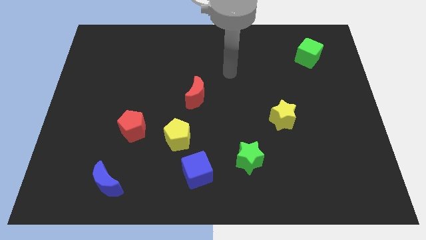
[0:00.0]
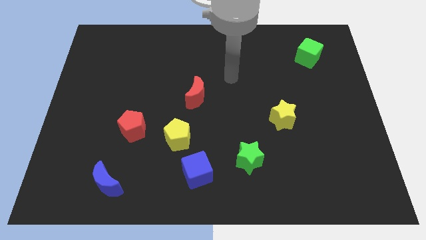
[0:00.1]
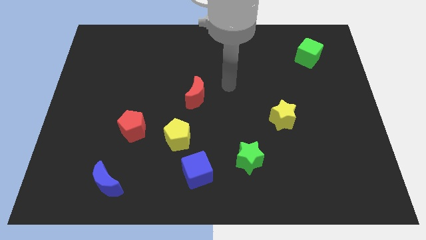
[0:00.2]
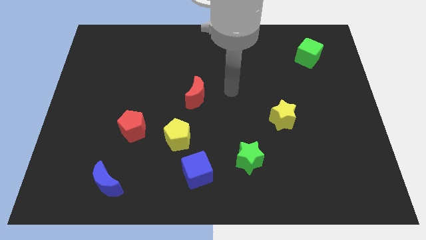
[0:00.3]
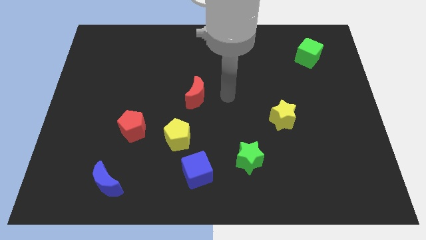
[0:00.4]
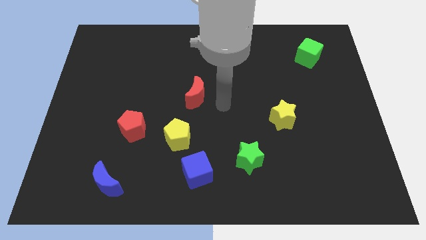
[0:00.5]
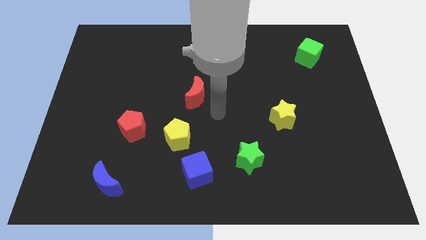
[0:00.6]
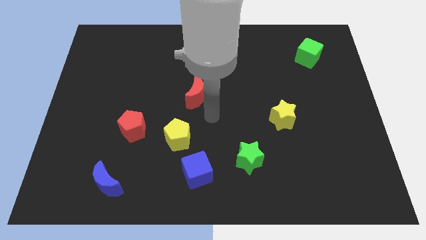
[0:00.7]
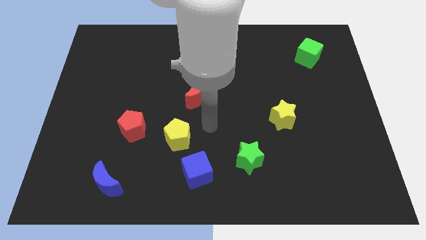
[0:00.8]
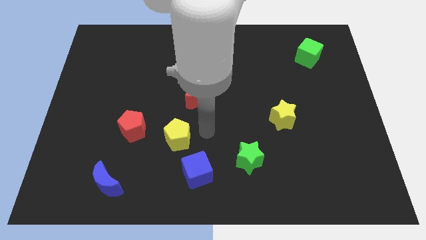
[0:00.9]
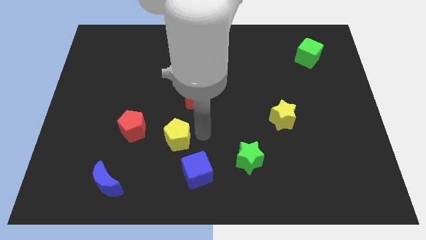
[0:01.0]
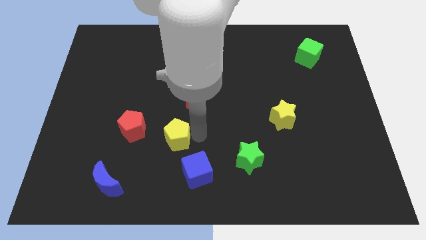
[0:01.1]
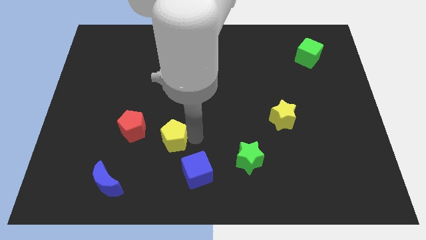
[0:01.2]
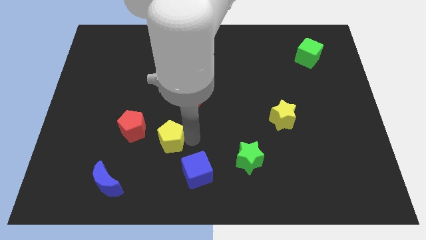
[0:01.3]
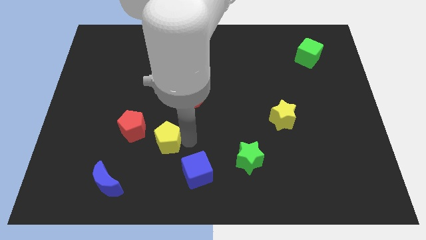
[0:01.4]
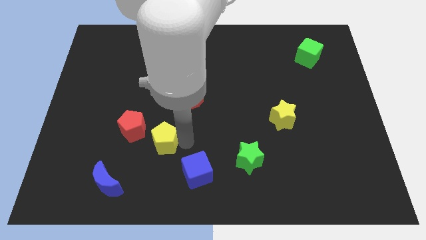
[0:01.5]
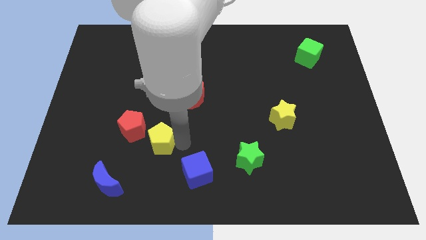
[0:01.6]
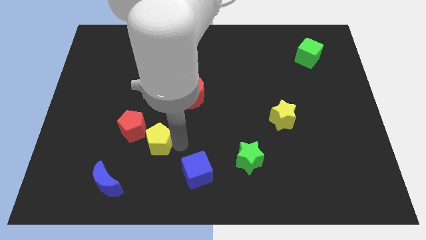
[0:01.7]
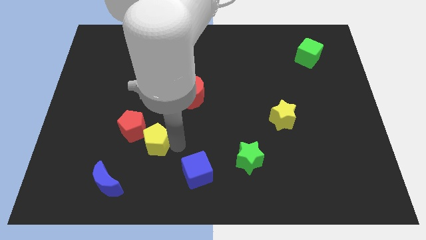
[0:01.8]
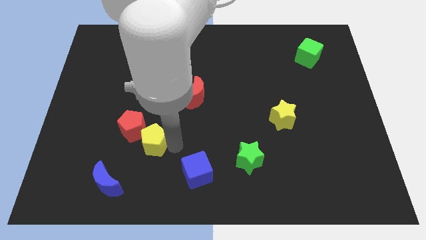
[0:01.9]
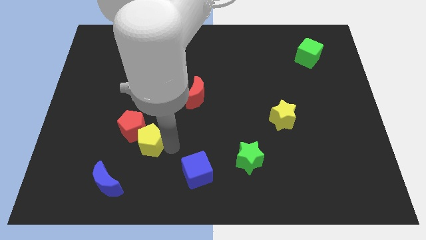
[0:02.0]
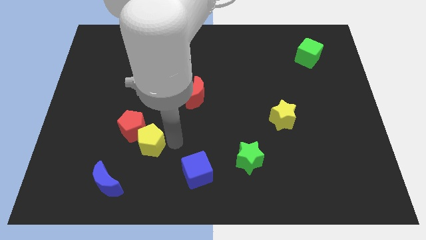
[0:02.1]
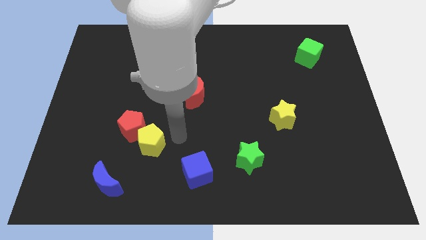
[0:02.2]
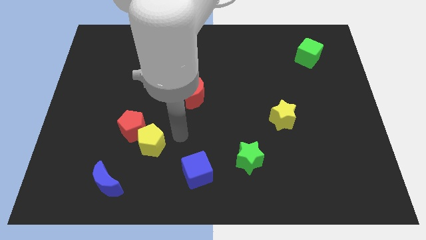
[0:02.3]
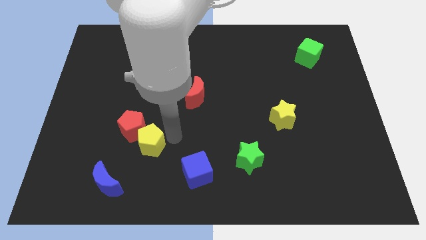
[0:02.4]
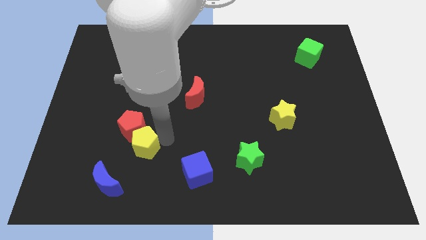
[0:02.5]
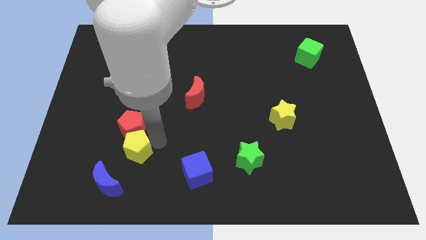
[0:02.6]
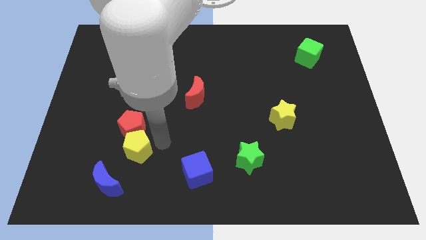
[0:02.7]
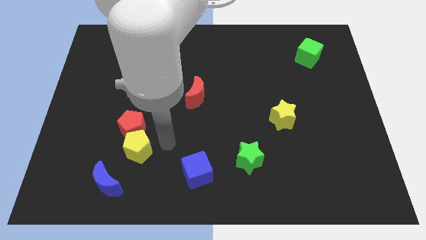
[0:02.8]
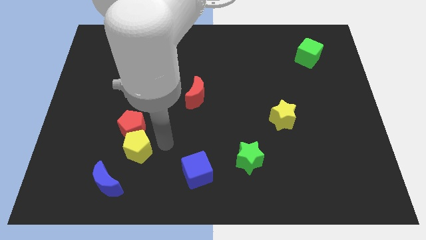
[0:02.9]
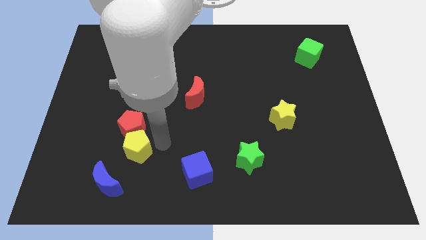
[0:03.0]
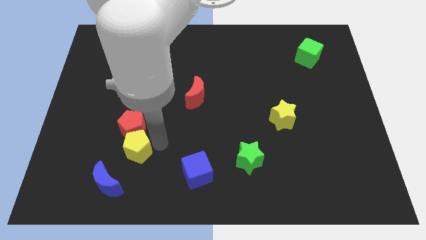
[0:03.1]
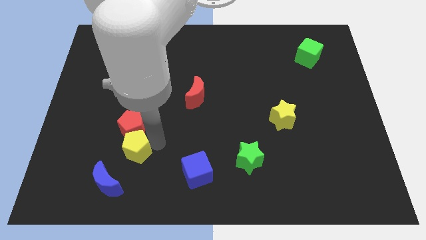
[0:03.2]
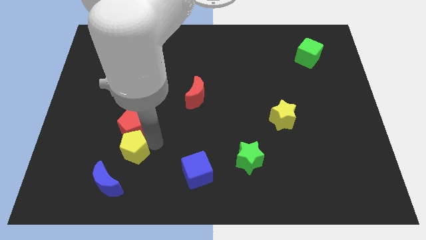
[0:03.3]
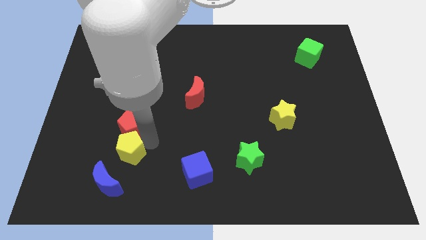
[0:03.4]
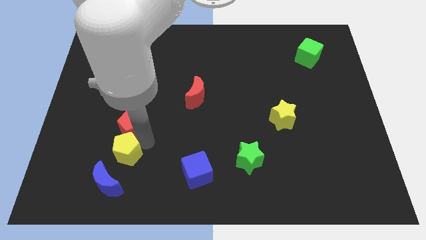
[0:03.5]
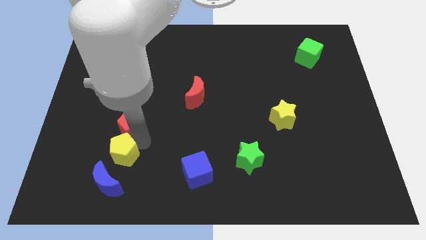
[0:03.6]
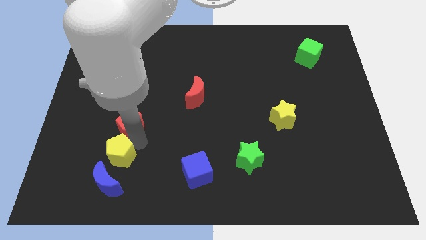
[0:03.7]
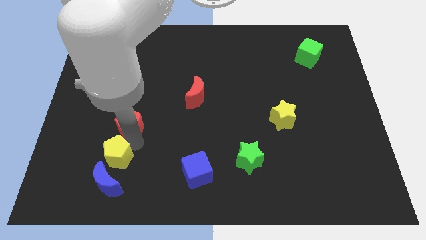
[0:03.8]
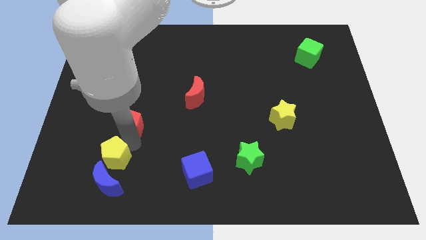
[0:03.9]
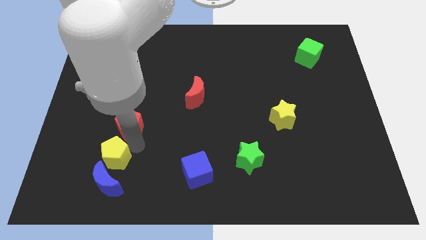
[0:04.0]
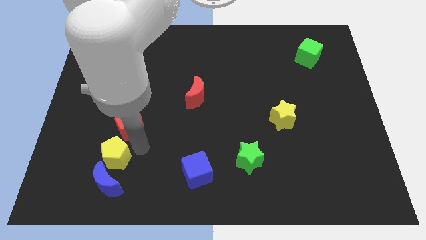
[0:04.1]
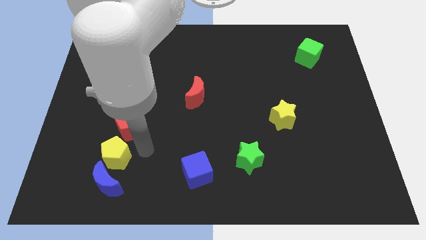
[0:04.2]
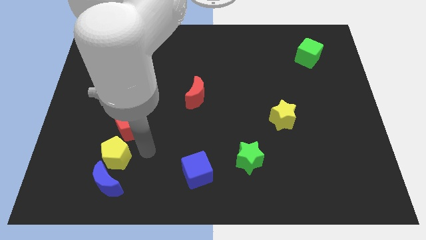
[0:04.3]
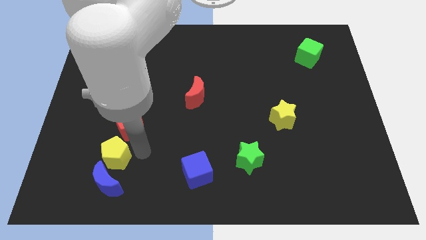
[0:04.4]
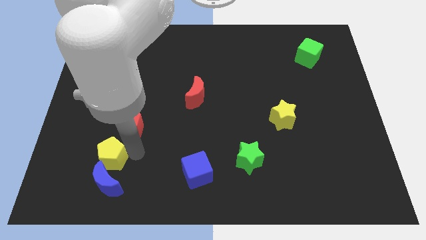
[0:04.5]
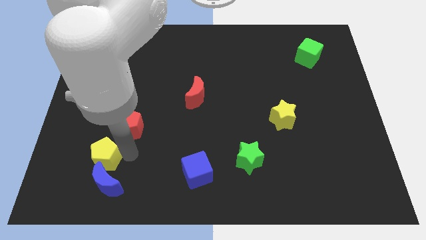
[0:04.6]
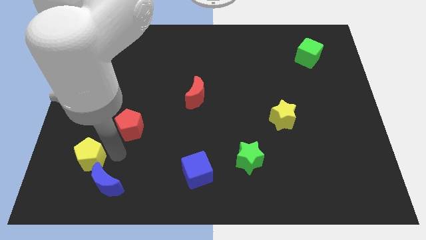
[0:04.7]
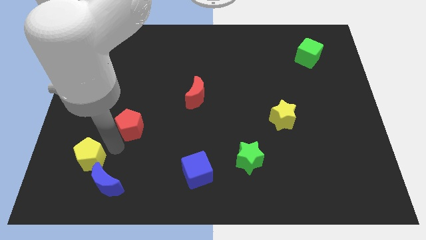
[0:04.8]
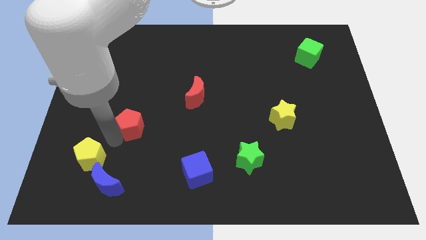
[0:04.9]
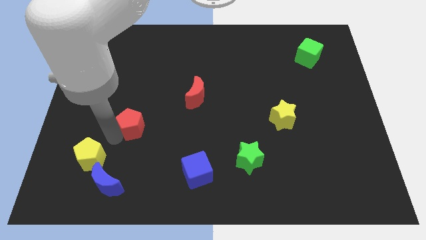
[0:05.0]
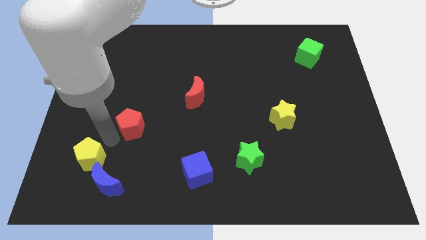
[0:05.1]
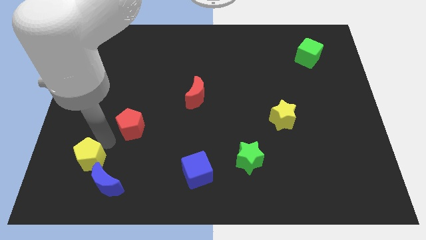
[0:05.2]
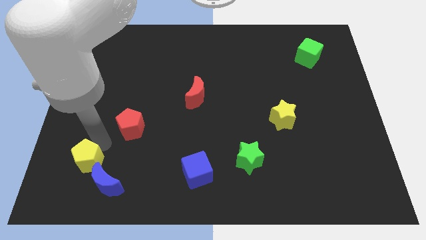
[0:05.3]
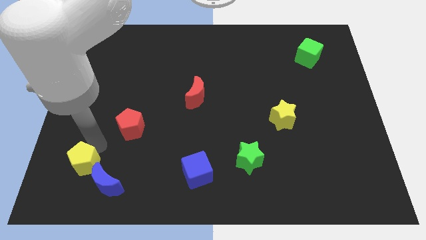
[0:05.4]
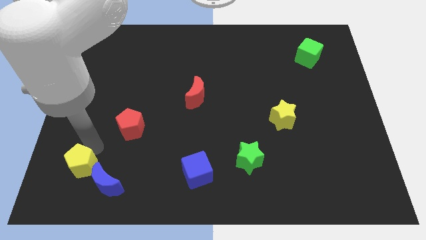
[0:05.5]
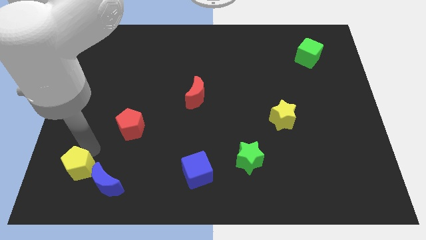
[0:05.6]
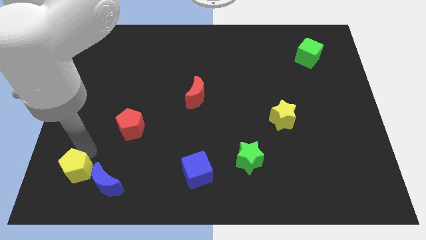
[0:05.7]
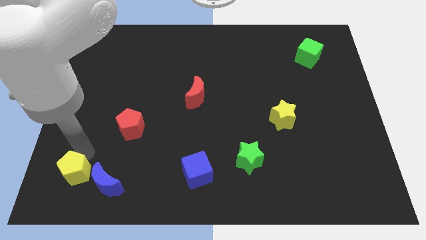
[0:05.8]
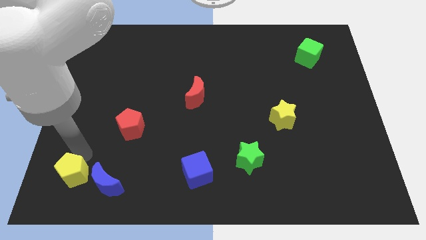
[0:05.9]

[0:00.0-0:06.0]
slide the yellow pentagon to the bottom left of the board
